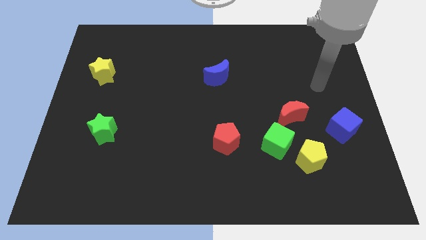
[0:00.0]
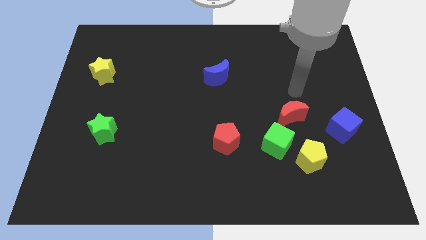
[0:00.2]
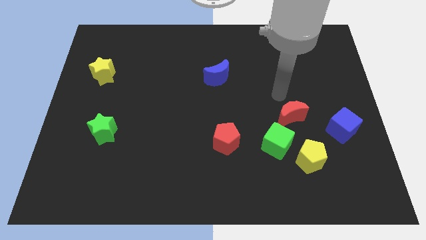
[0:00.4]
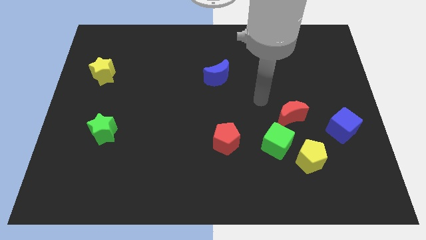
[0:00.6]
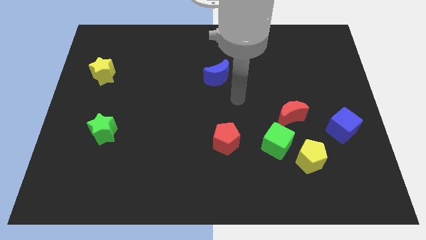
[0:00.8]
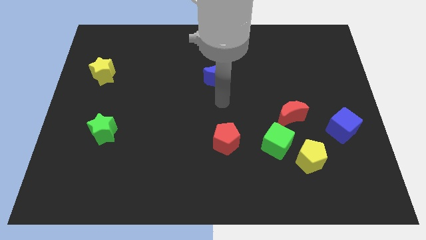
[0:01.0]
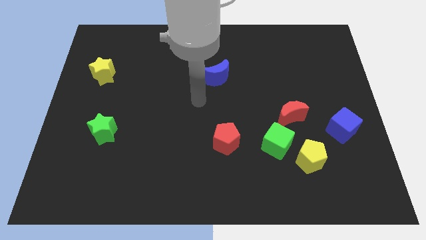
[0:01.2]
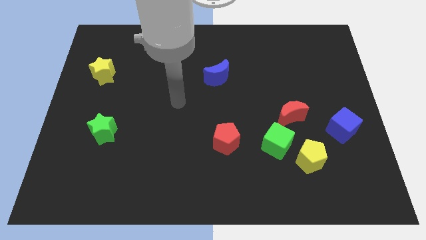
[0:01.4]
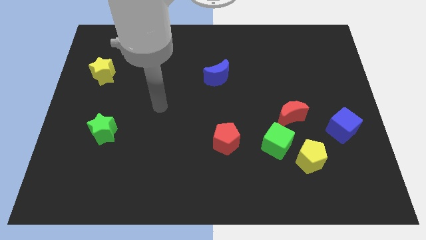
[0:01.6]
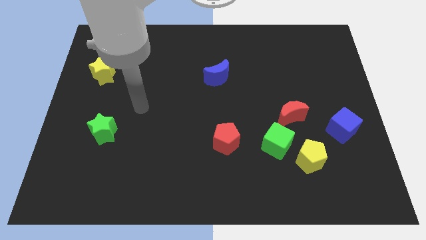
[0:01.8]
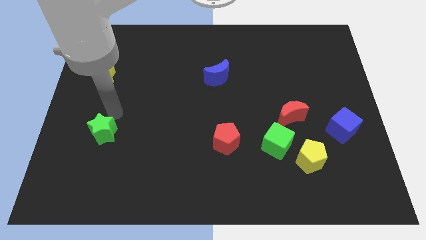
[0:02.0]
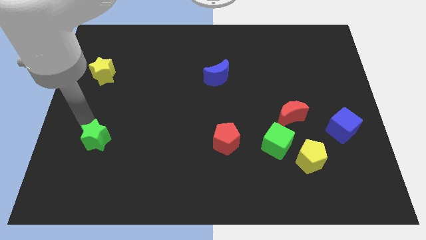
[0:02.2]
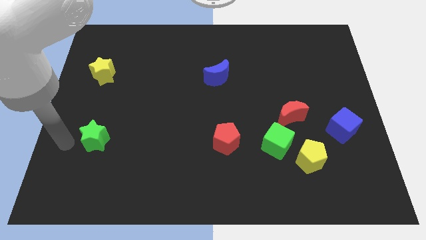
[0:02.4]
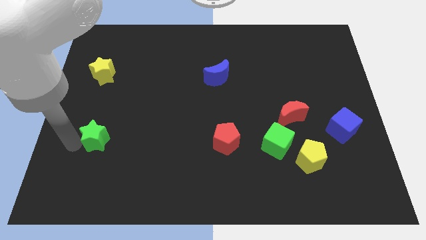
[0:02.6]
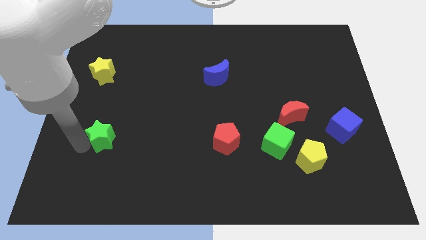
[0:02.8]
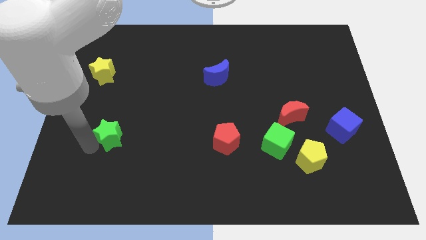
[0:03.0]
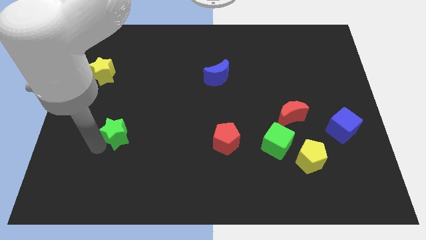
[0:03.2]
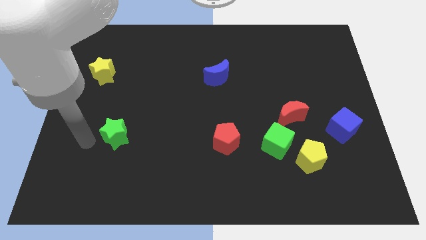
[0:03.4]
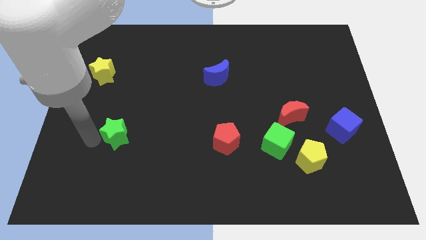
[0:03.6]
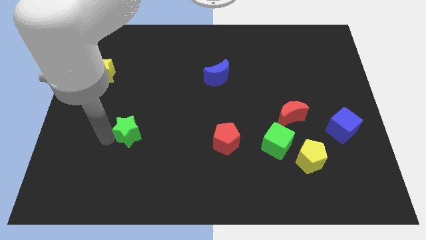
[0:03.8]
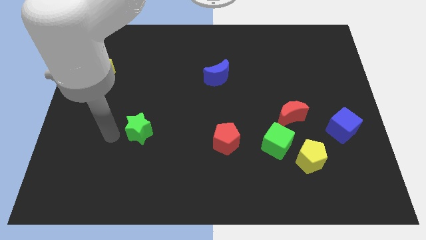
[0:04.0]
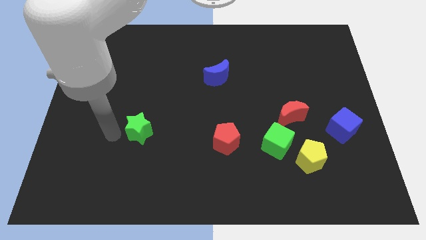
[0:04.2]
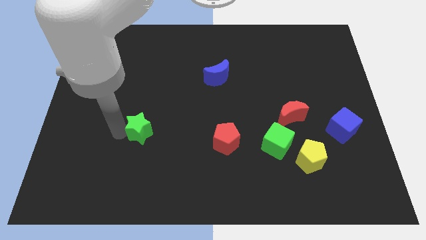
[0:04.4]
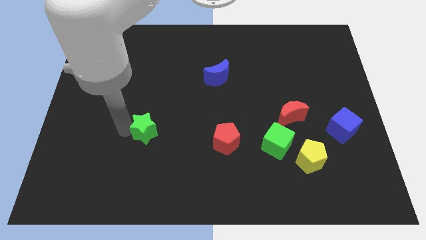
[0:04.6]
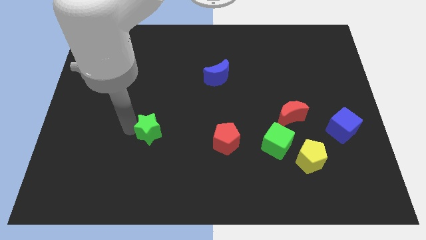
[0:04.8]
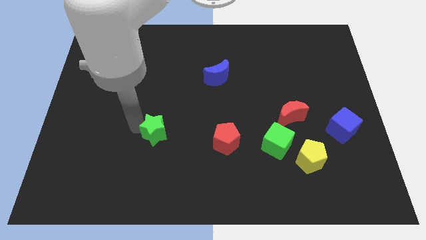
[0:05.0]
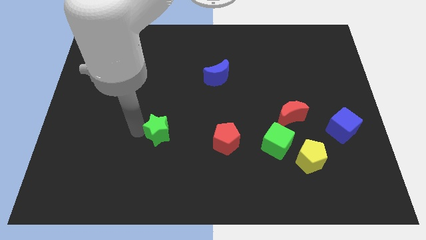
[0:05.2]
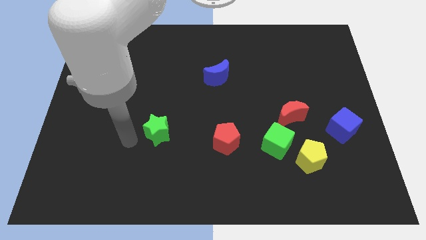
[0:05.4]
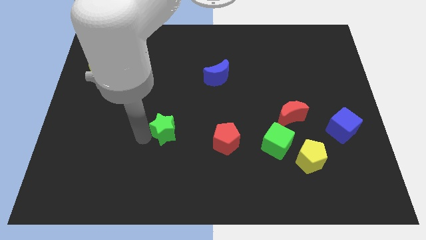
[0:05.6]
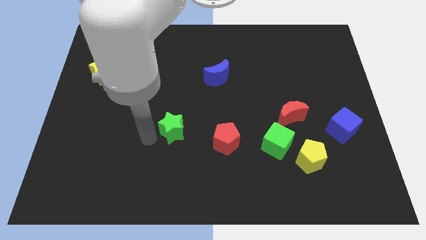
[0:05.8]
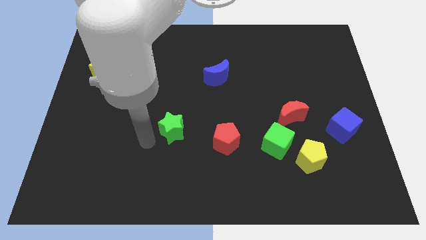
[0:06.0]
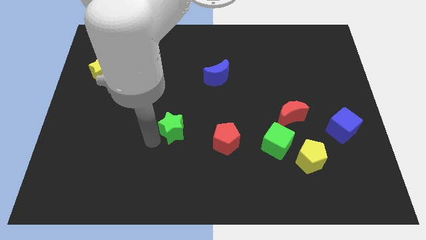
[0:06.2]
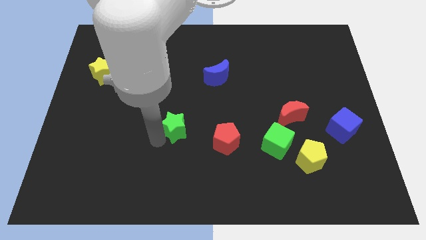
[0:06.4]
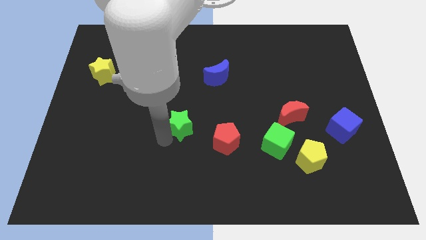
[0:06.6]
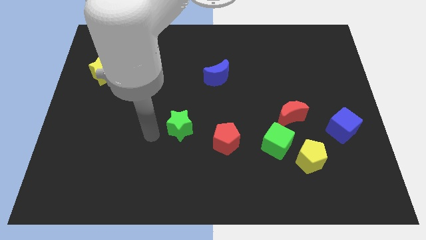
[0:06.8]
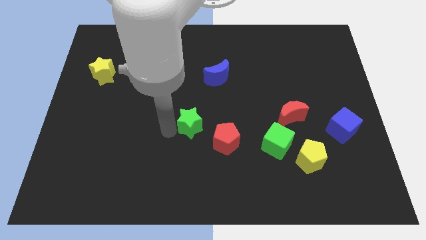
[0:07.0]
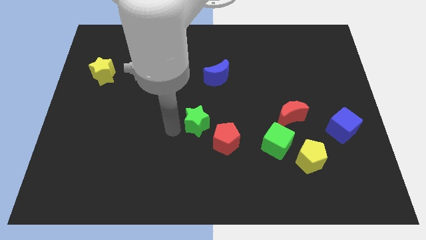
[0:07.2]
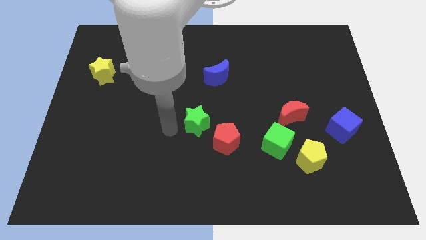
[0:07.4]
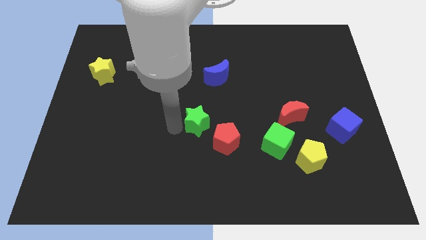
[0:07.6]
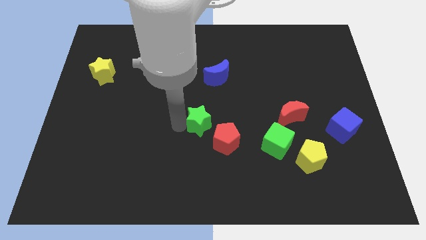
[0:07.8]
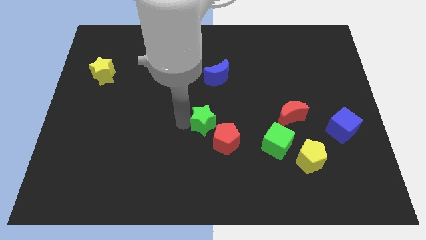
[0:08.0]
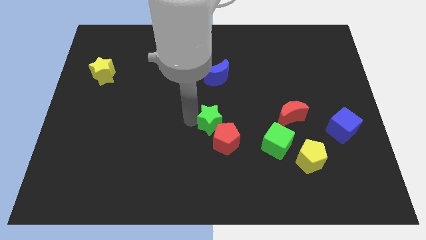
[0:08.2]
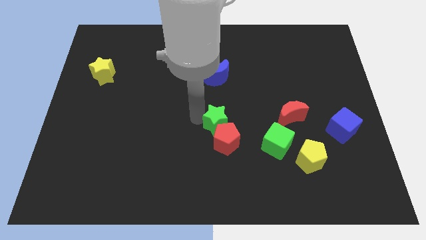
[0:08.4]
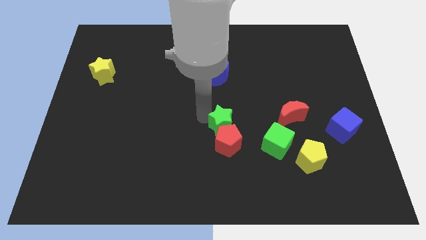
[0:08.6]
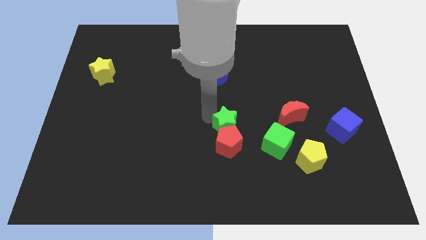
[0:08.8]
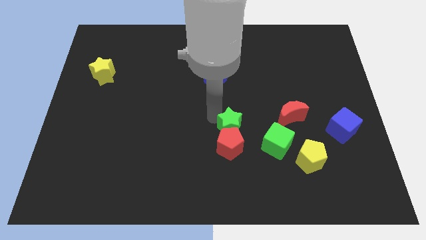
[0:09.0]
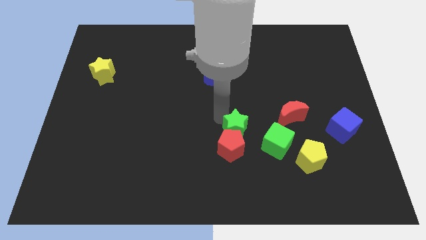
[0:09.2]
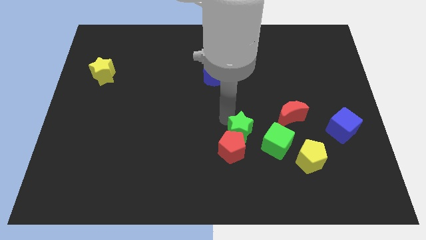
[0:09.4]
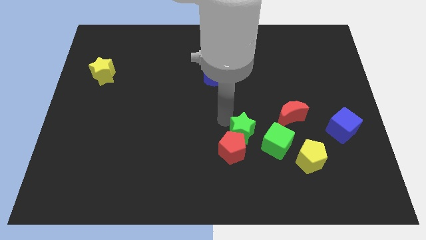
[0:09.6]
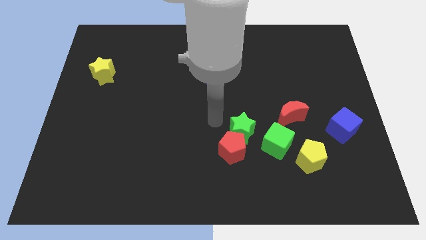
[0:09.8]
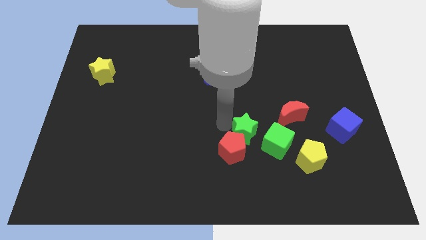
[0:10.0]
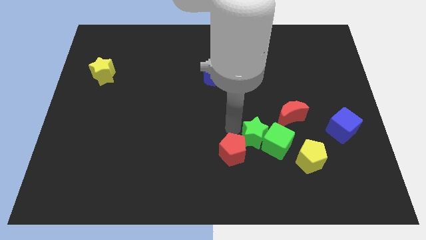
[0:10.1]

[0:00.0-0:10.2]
push the green star next to the green cube

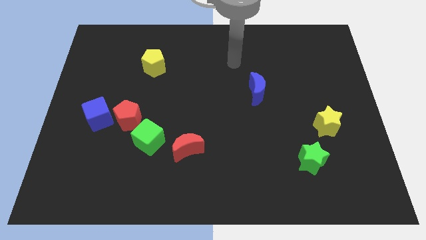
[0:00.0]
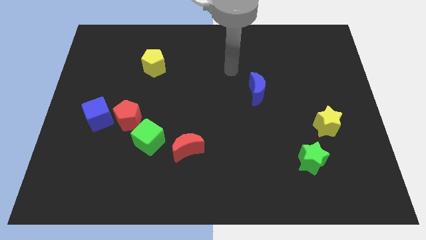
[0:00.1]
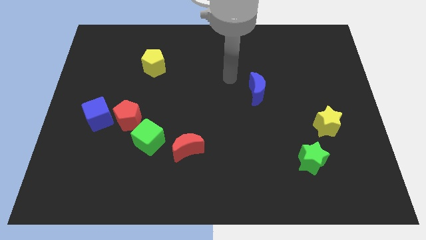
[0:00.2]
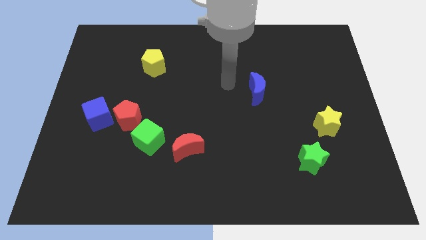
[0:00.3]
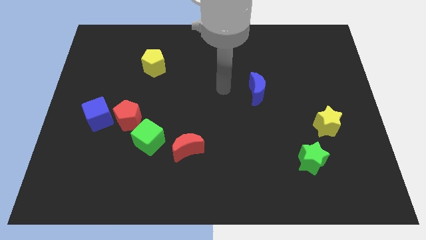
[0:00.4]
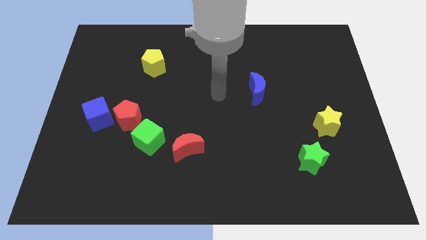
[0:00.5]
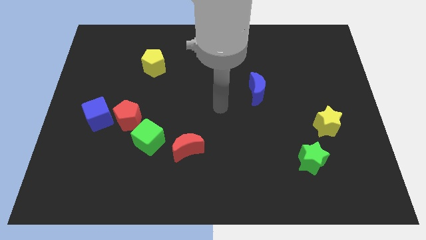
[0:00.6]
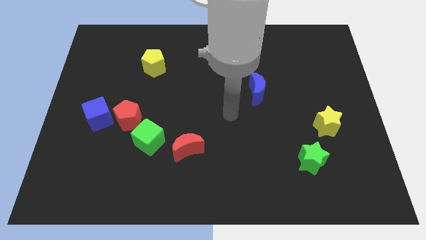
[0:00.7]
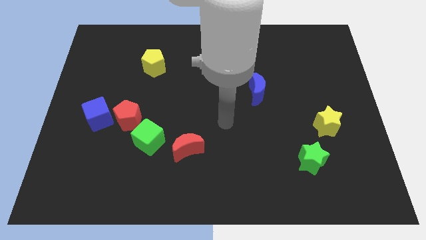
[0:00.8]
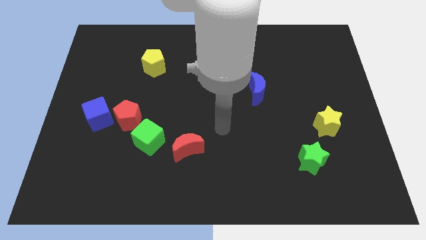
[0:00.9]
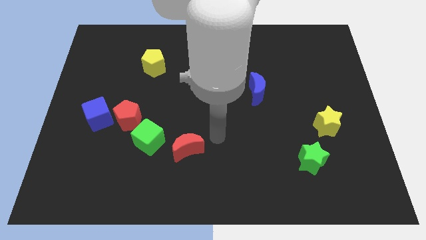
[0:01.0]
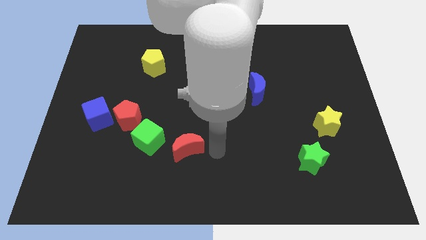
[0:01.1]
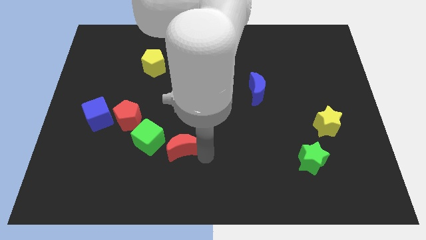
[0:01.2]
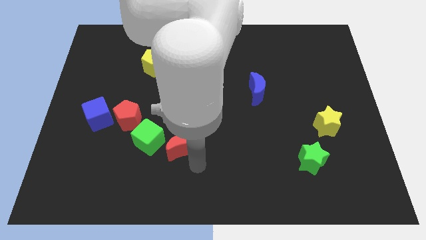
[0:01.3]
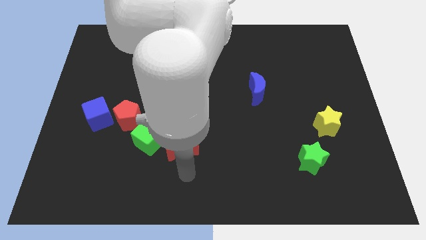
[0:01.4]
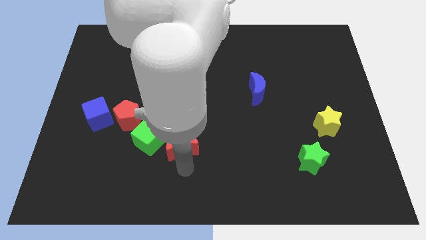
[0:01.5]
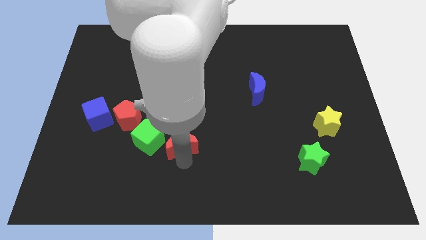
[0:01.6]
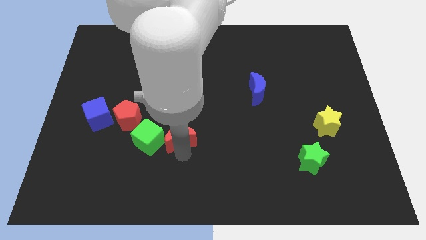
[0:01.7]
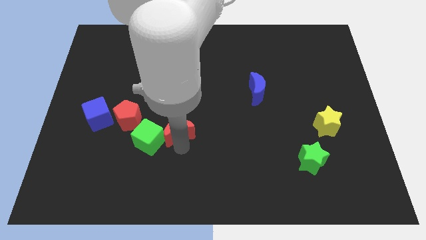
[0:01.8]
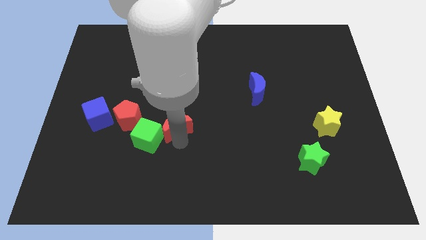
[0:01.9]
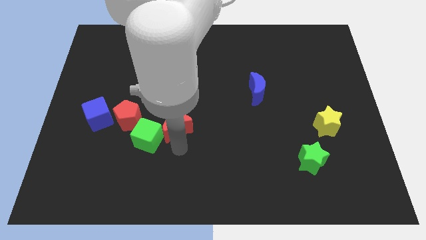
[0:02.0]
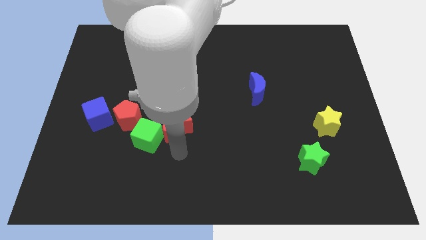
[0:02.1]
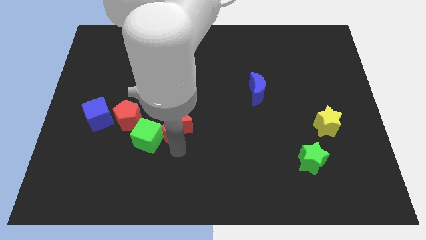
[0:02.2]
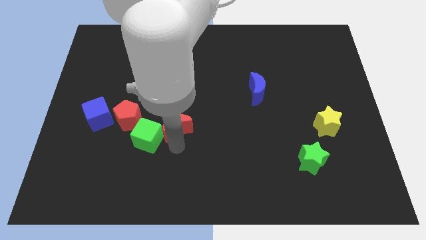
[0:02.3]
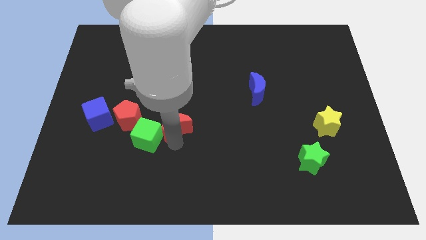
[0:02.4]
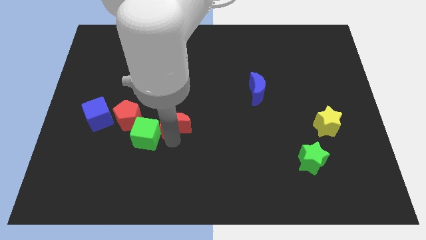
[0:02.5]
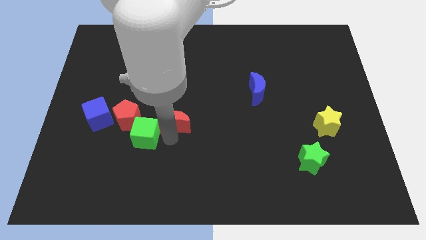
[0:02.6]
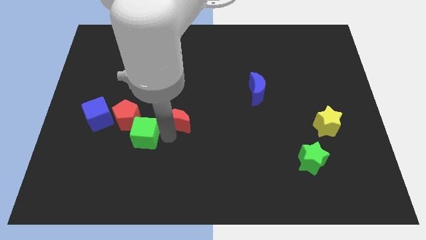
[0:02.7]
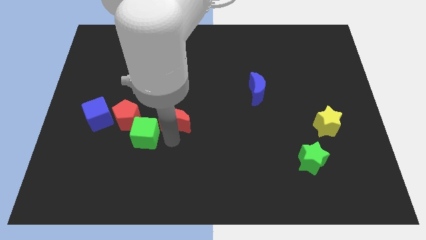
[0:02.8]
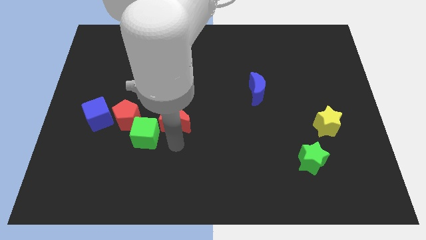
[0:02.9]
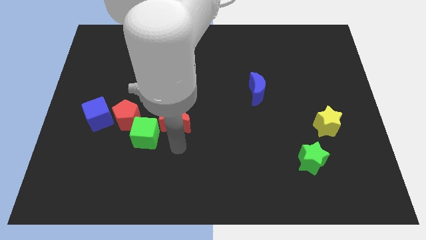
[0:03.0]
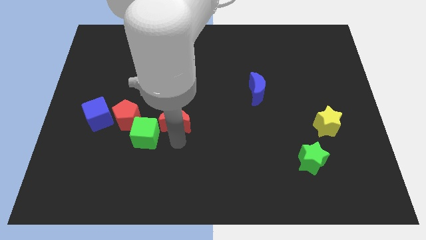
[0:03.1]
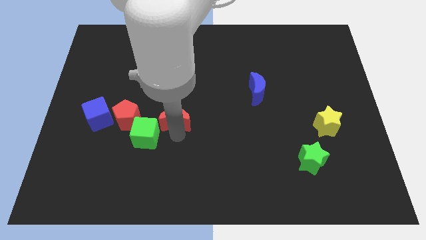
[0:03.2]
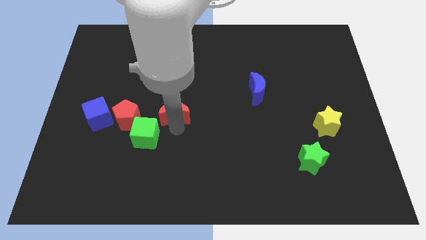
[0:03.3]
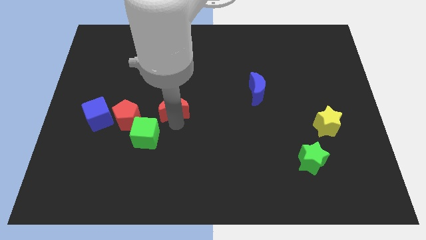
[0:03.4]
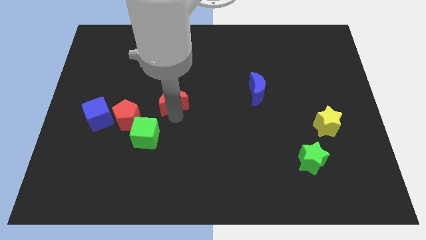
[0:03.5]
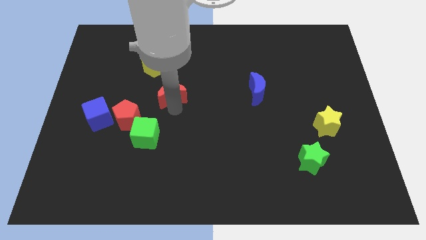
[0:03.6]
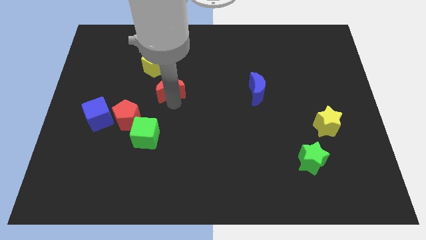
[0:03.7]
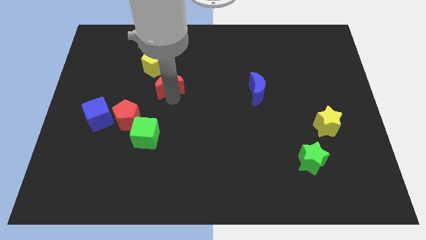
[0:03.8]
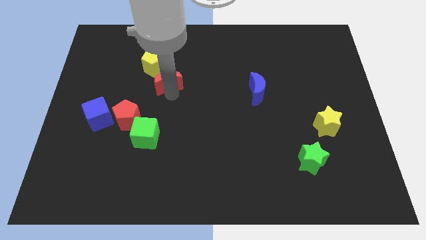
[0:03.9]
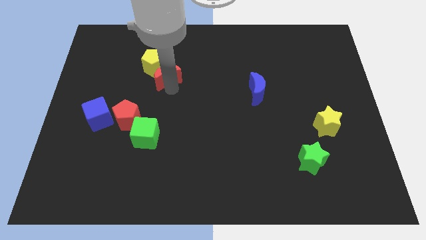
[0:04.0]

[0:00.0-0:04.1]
put the red moon to the yellow pentagon
